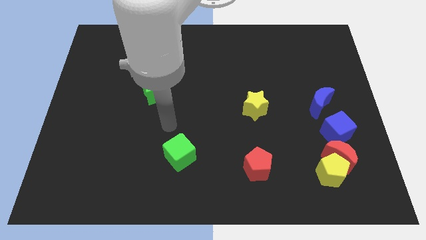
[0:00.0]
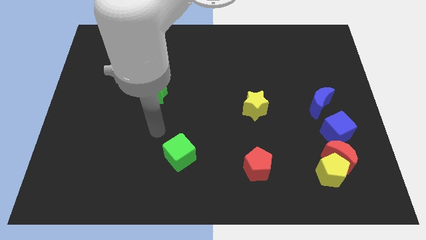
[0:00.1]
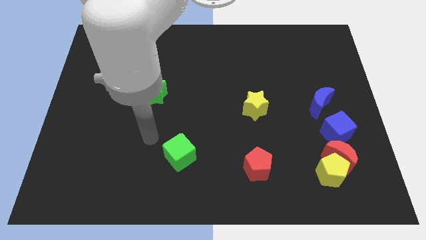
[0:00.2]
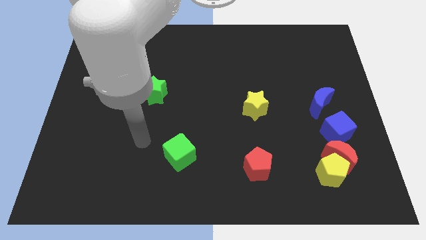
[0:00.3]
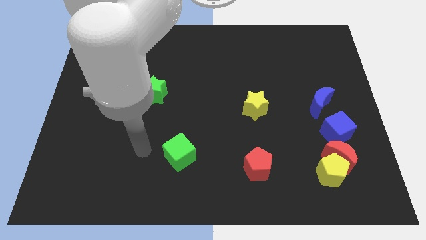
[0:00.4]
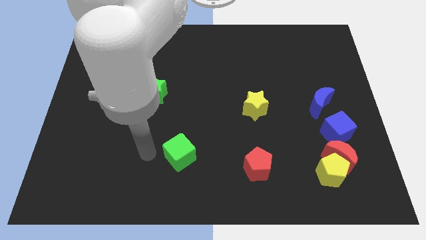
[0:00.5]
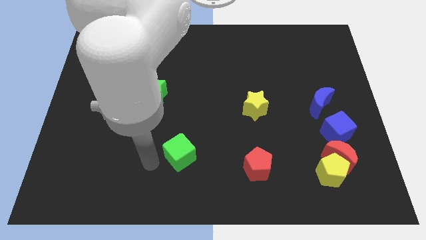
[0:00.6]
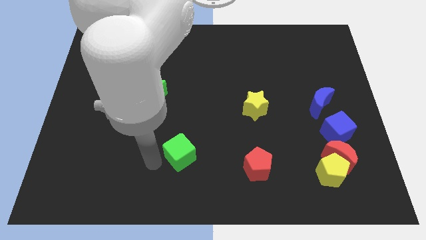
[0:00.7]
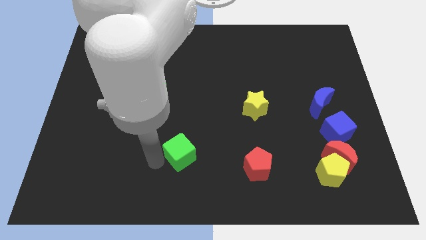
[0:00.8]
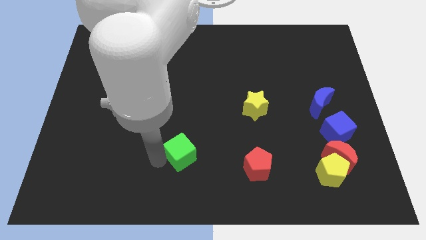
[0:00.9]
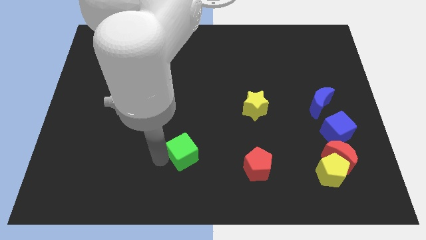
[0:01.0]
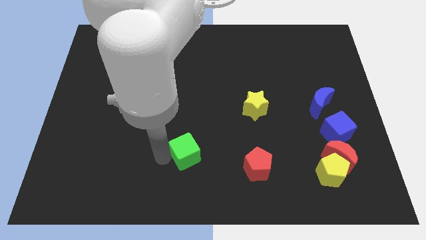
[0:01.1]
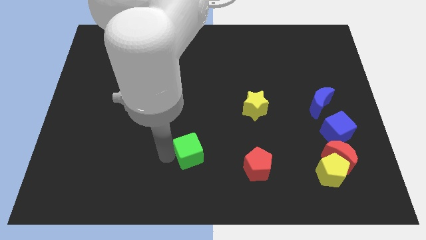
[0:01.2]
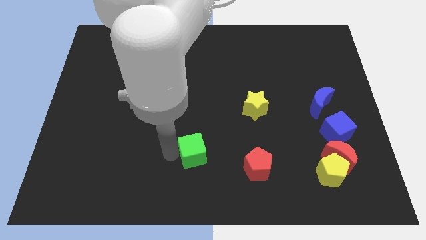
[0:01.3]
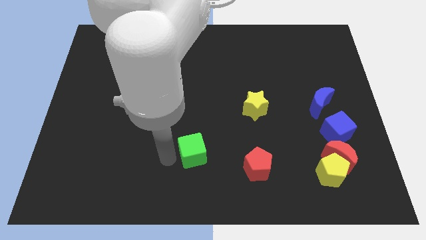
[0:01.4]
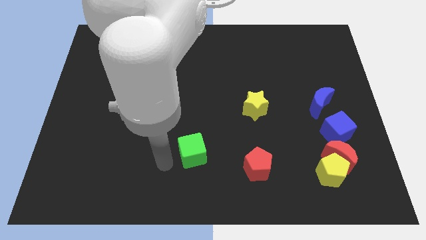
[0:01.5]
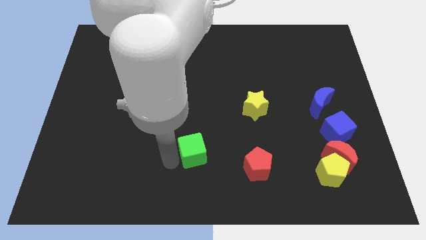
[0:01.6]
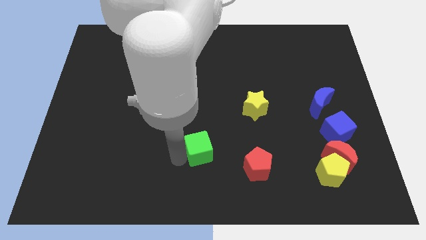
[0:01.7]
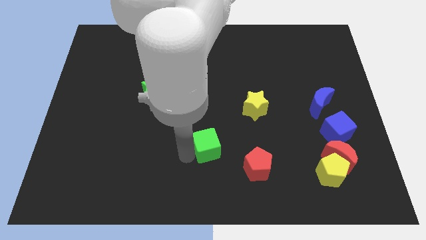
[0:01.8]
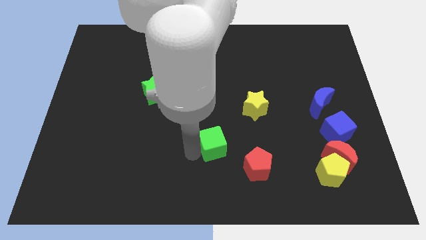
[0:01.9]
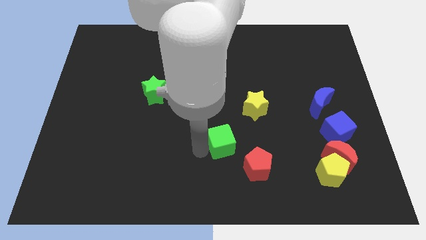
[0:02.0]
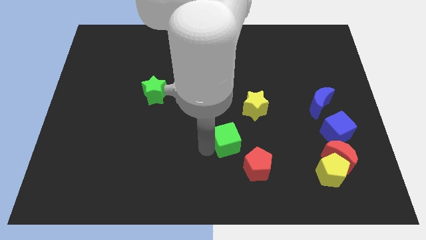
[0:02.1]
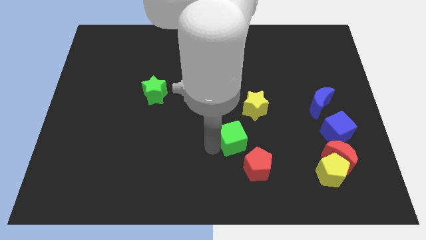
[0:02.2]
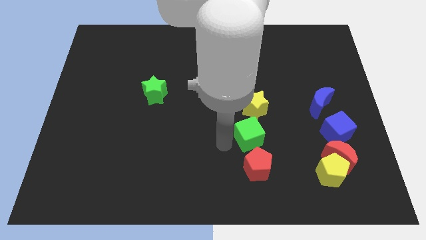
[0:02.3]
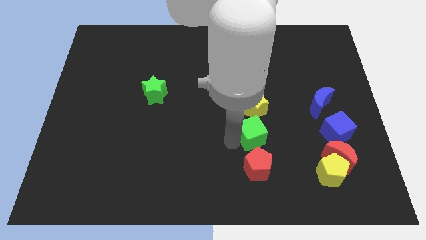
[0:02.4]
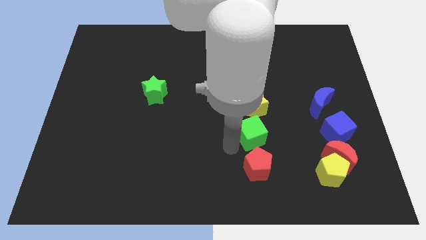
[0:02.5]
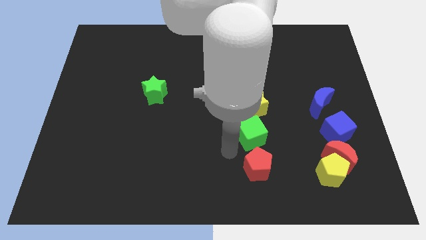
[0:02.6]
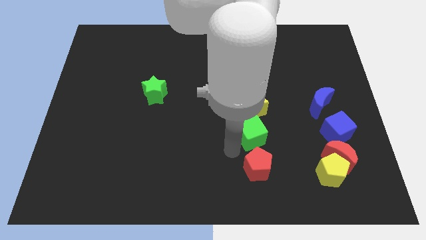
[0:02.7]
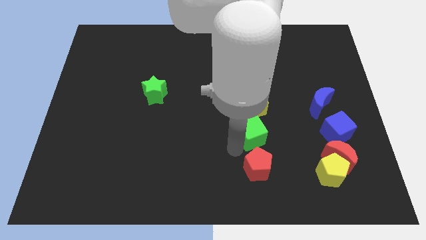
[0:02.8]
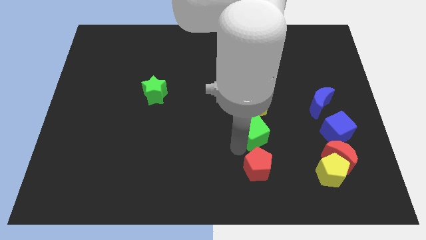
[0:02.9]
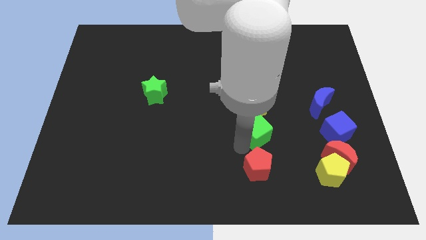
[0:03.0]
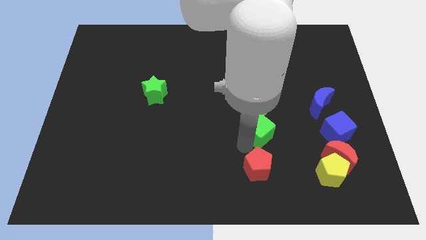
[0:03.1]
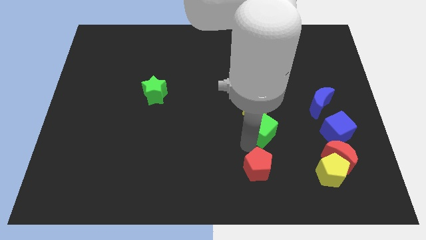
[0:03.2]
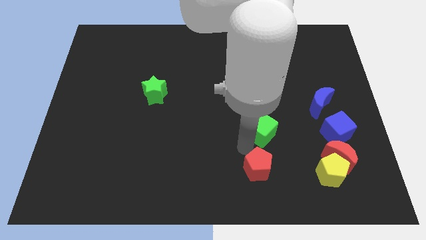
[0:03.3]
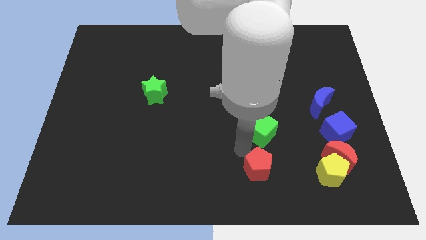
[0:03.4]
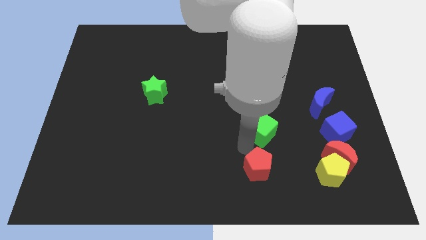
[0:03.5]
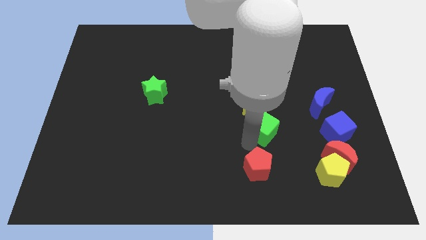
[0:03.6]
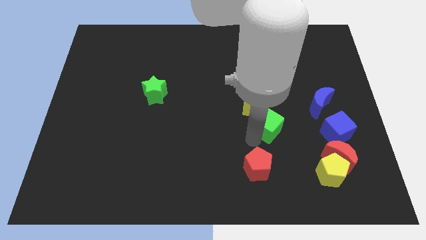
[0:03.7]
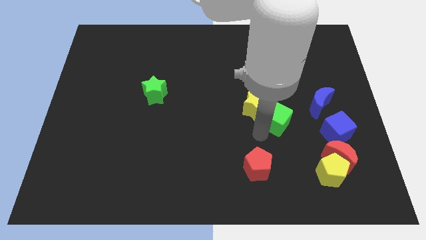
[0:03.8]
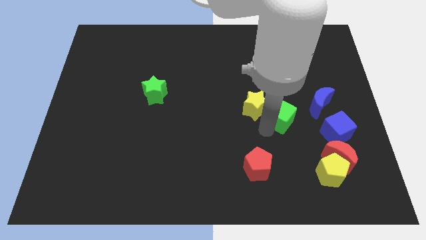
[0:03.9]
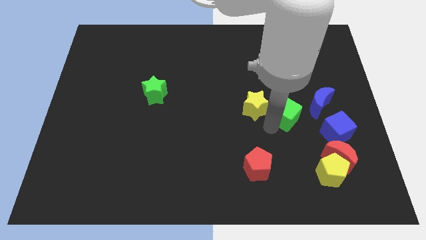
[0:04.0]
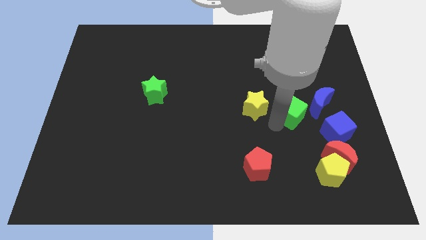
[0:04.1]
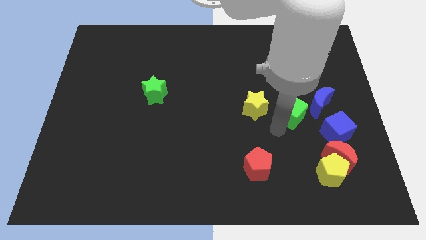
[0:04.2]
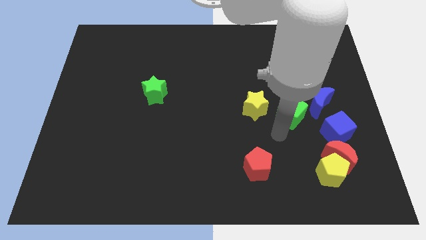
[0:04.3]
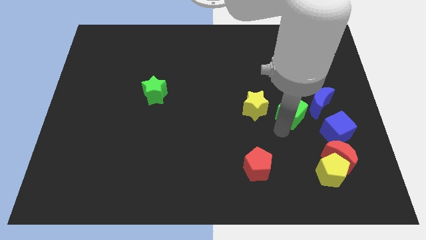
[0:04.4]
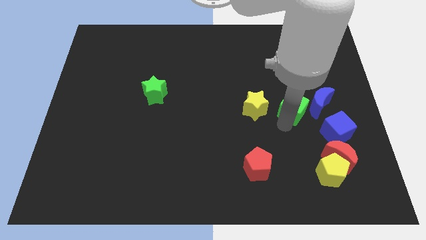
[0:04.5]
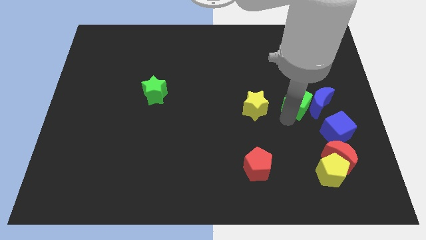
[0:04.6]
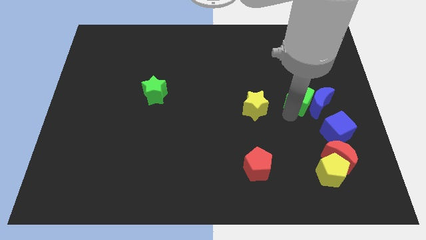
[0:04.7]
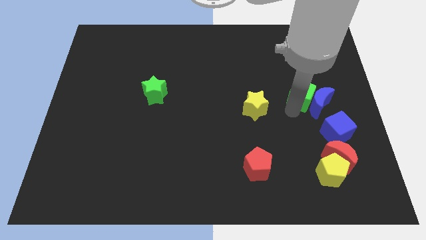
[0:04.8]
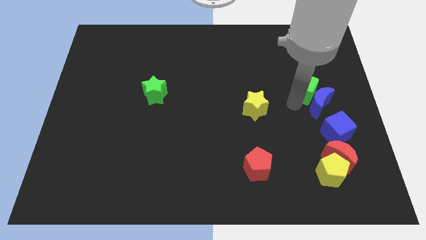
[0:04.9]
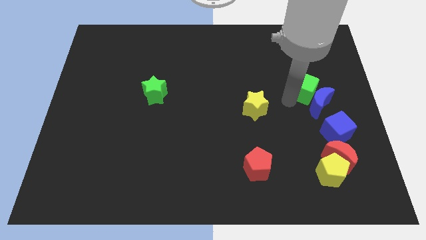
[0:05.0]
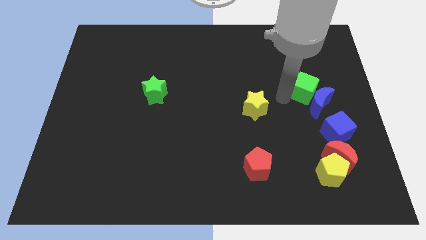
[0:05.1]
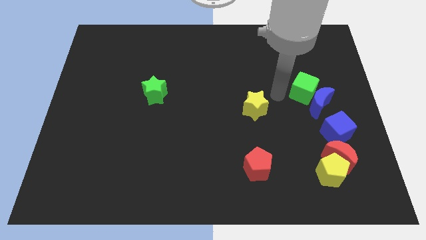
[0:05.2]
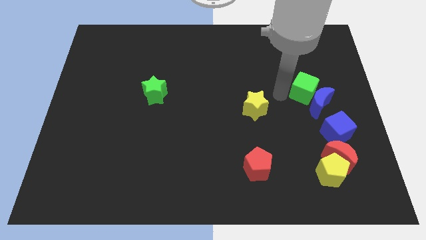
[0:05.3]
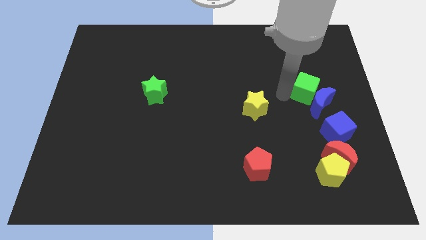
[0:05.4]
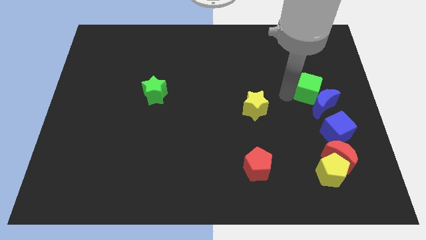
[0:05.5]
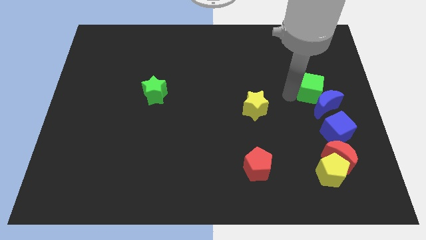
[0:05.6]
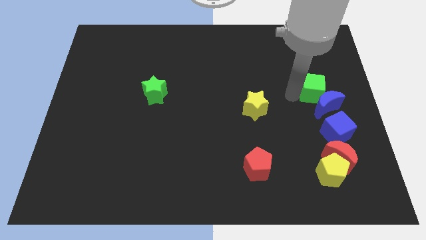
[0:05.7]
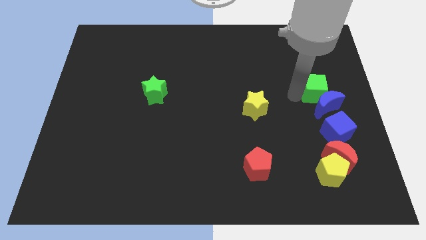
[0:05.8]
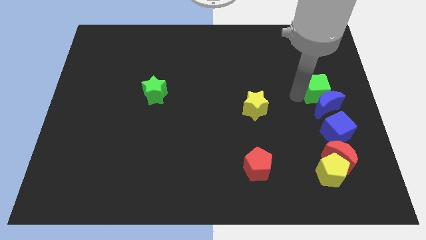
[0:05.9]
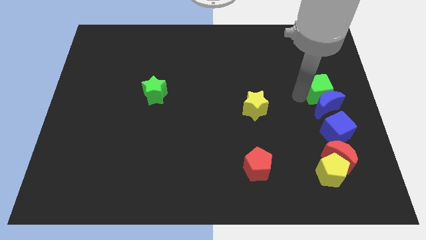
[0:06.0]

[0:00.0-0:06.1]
put the green cube to the right side of the board
